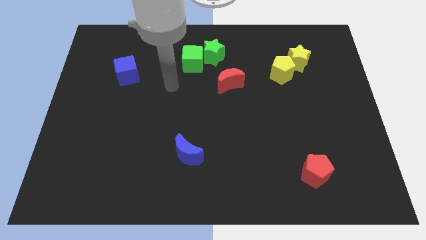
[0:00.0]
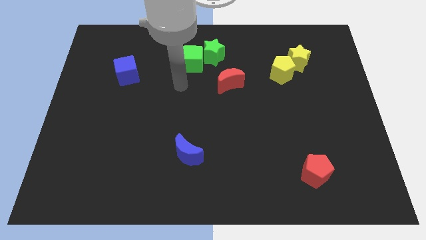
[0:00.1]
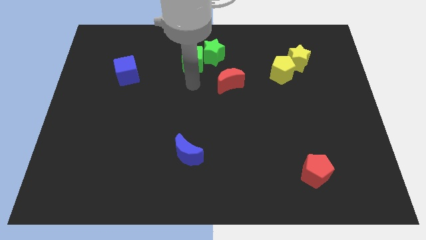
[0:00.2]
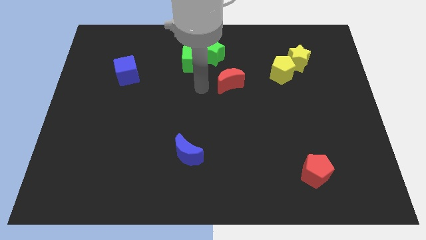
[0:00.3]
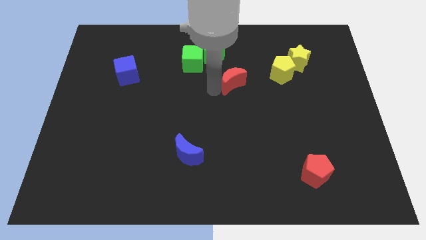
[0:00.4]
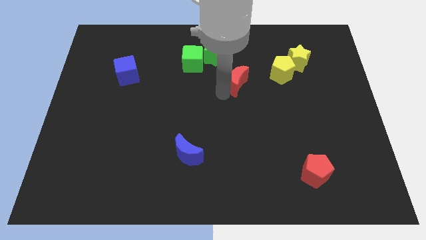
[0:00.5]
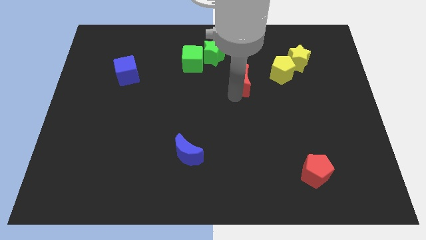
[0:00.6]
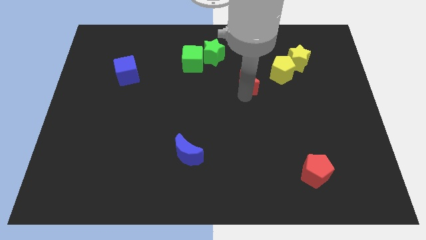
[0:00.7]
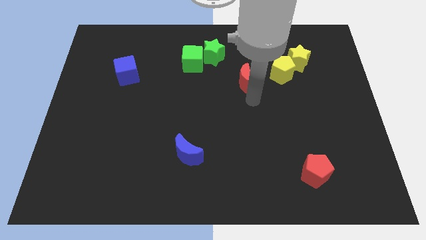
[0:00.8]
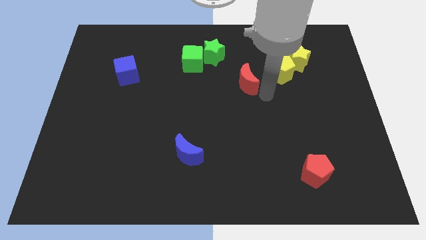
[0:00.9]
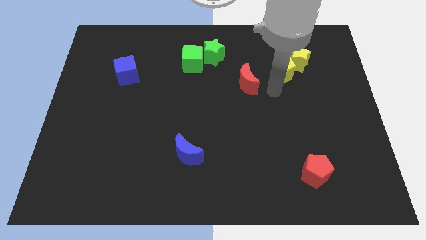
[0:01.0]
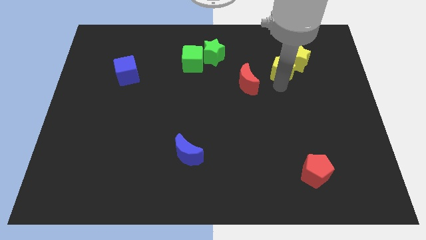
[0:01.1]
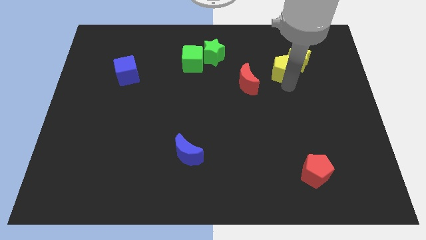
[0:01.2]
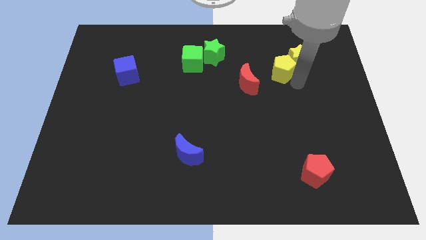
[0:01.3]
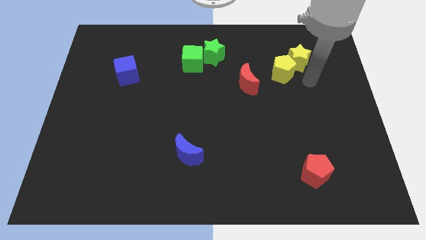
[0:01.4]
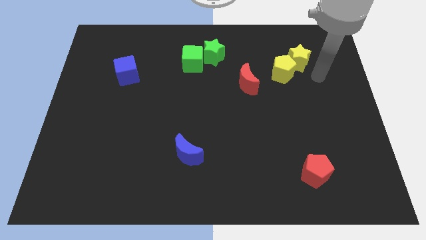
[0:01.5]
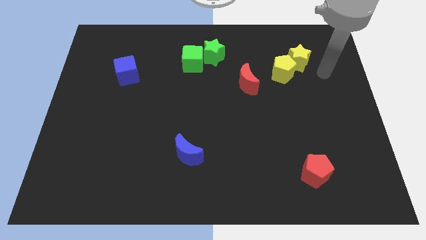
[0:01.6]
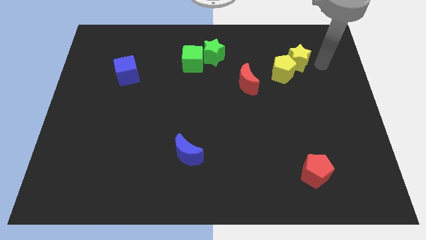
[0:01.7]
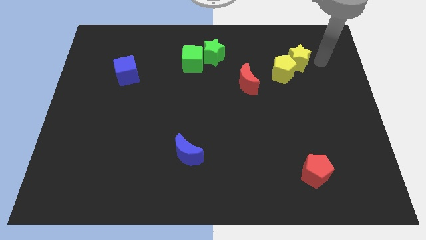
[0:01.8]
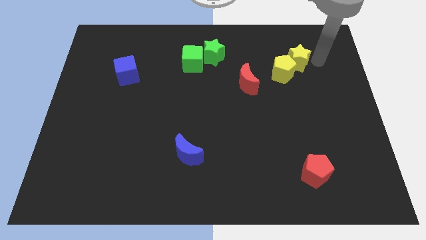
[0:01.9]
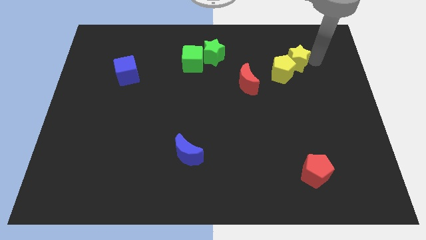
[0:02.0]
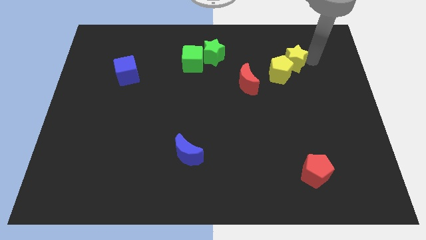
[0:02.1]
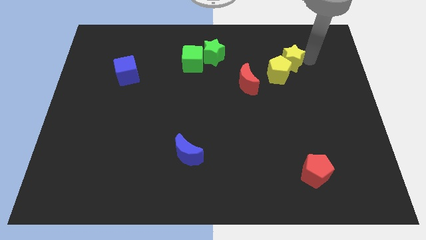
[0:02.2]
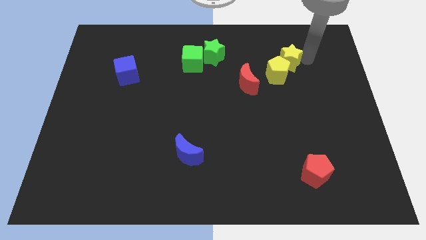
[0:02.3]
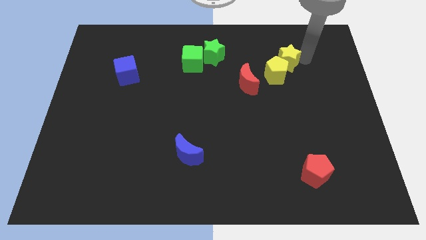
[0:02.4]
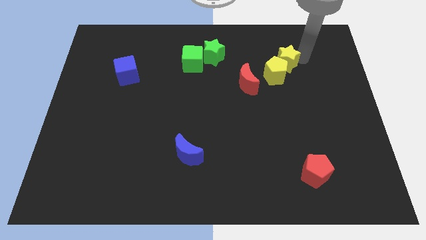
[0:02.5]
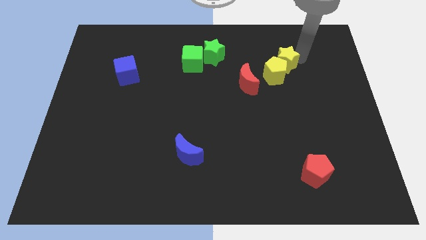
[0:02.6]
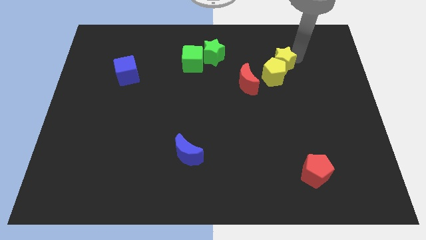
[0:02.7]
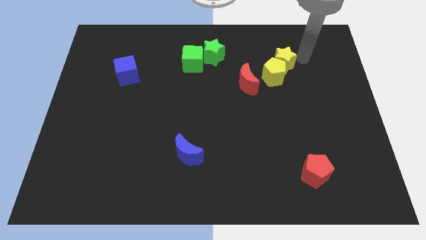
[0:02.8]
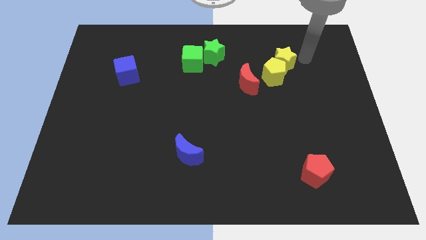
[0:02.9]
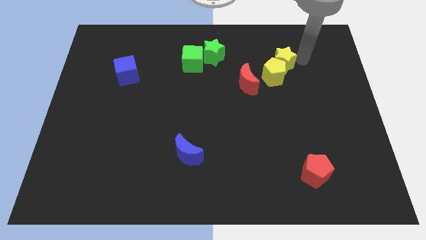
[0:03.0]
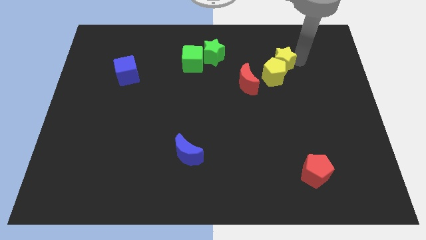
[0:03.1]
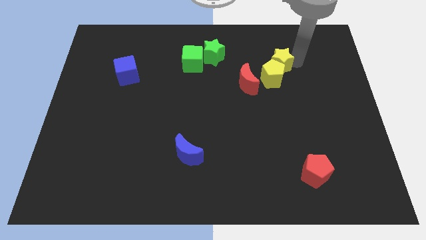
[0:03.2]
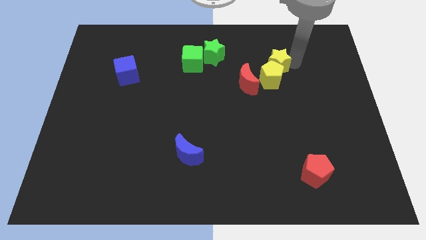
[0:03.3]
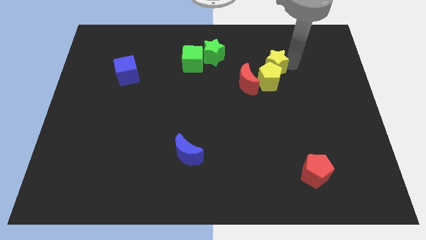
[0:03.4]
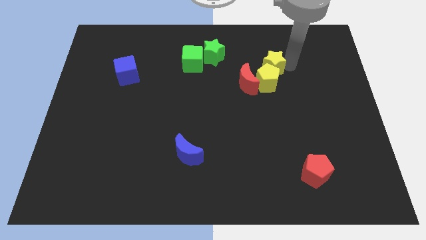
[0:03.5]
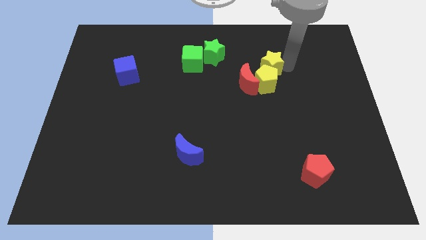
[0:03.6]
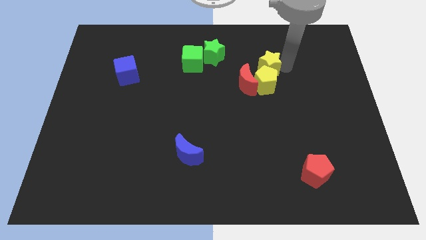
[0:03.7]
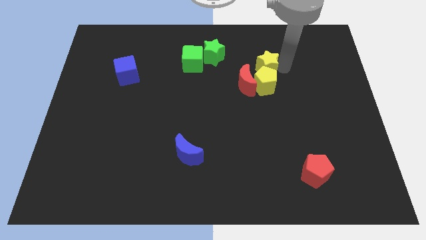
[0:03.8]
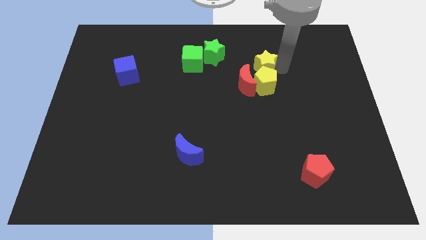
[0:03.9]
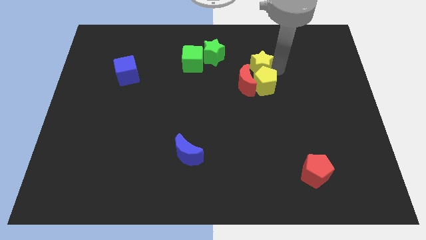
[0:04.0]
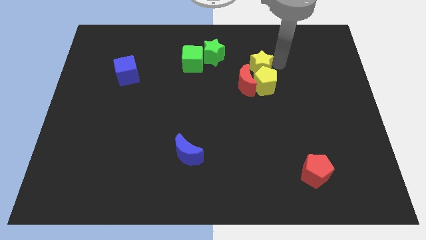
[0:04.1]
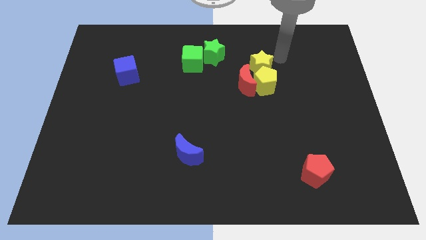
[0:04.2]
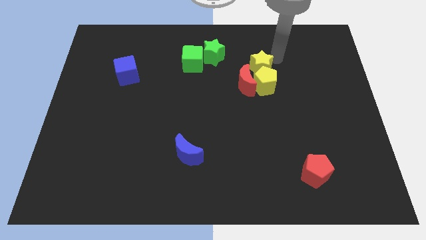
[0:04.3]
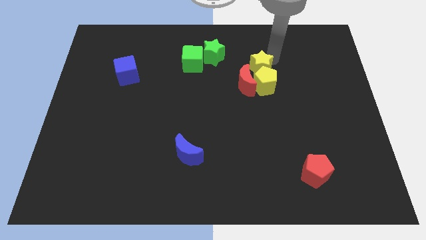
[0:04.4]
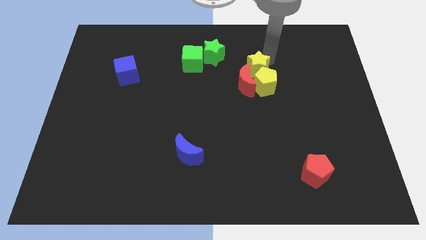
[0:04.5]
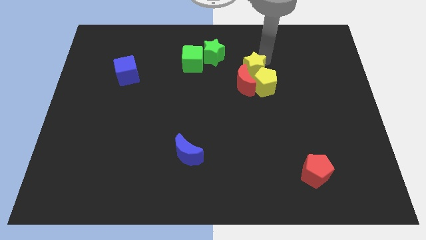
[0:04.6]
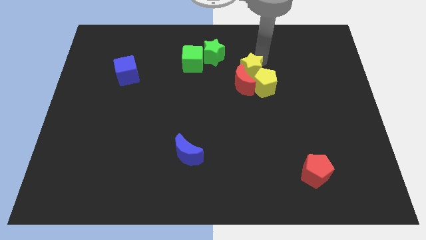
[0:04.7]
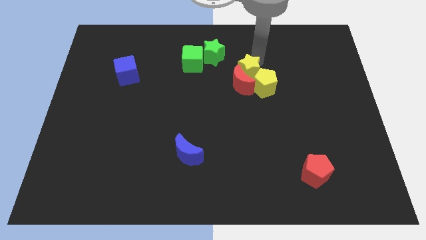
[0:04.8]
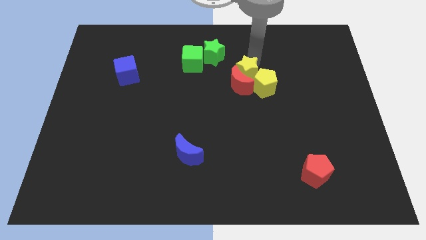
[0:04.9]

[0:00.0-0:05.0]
push the yellow star just left of the yellow pentagon

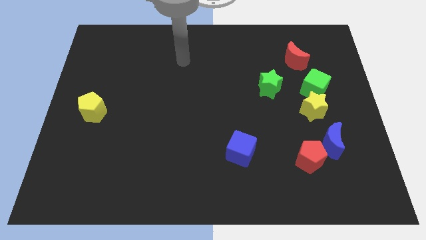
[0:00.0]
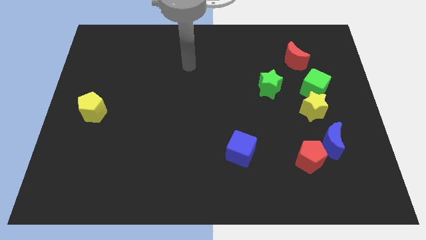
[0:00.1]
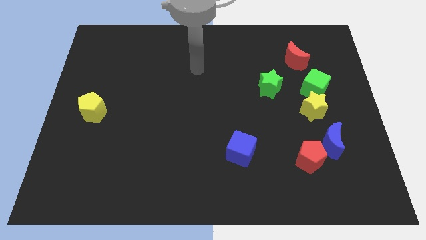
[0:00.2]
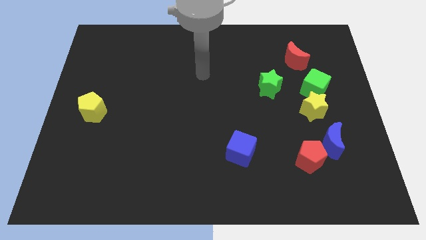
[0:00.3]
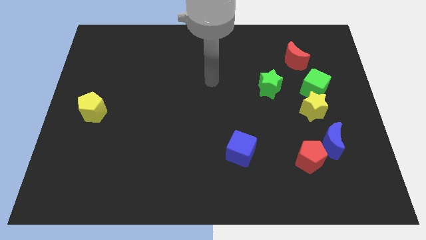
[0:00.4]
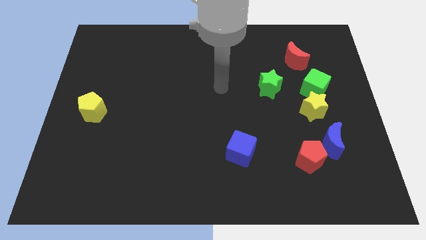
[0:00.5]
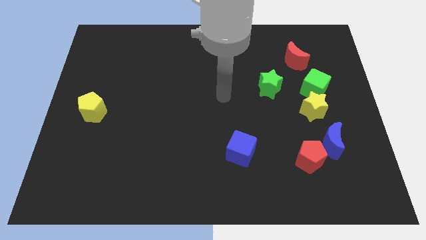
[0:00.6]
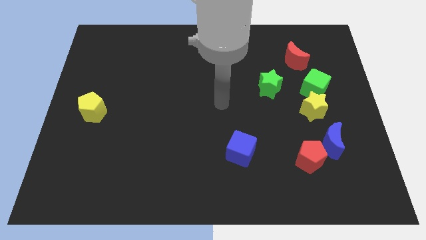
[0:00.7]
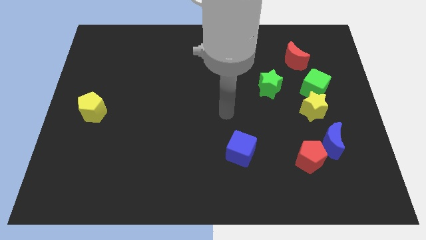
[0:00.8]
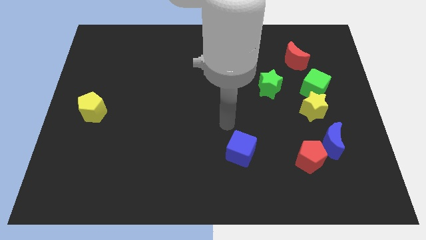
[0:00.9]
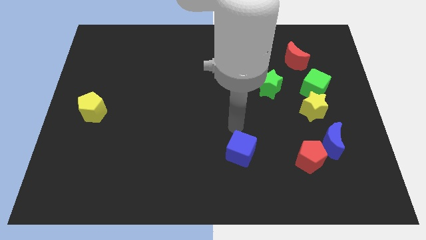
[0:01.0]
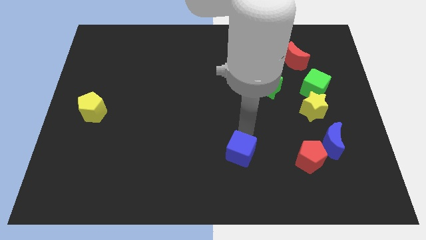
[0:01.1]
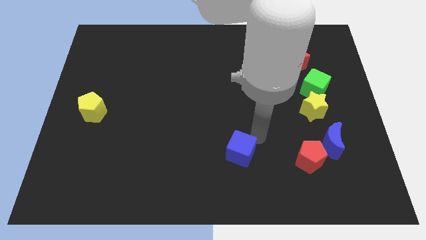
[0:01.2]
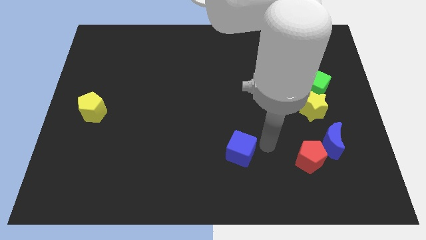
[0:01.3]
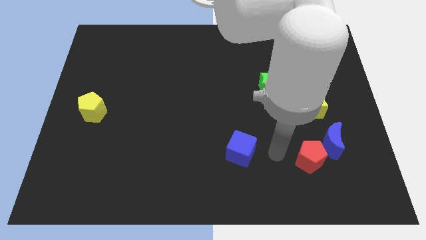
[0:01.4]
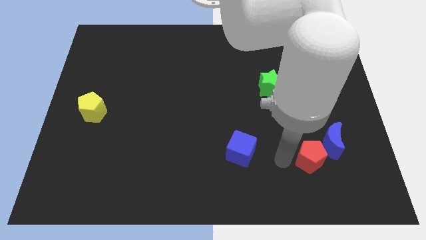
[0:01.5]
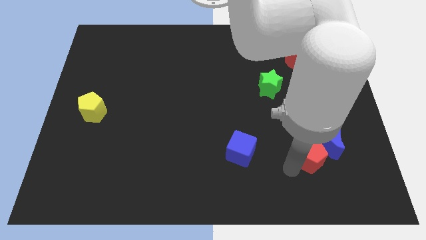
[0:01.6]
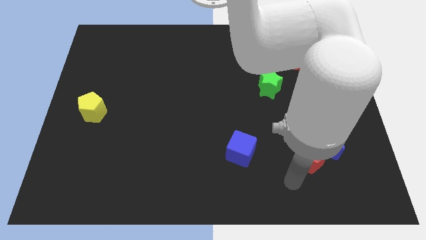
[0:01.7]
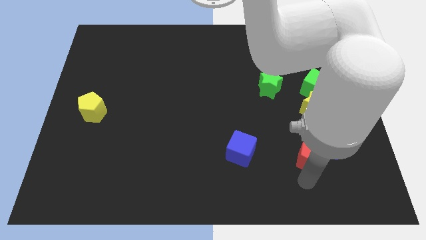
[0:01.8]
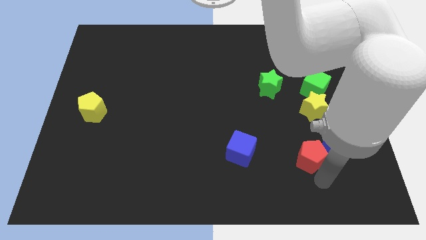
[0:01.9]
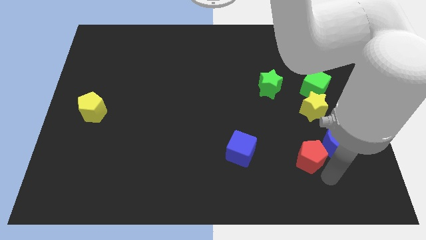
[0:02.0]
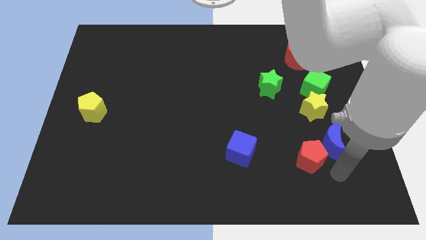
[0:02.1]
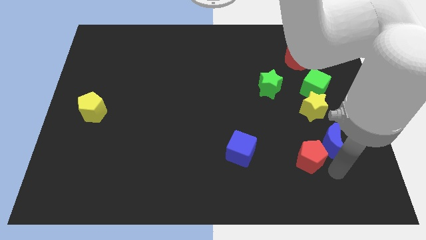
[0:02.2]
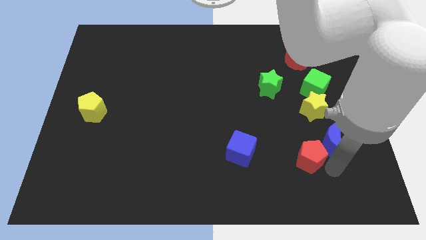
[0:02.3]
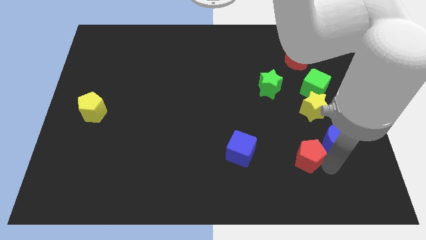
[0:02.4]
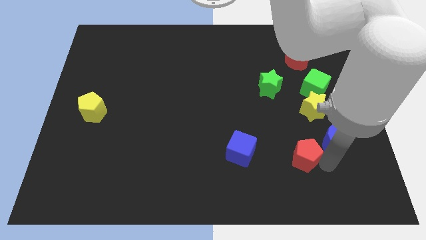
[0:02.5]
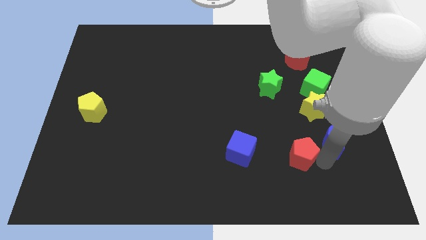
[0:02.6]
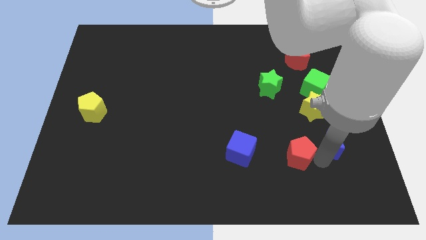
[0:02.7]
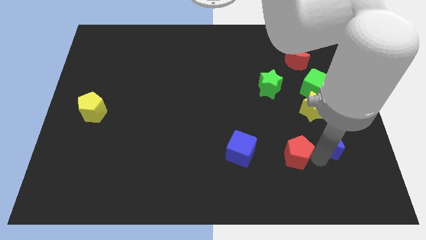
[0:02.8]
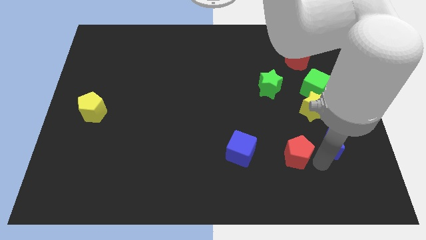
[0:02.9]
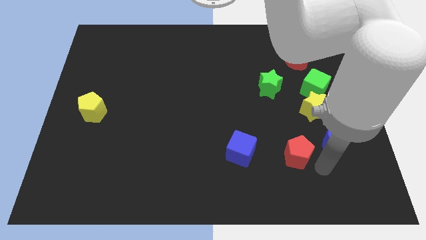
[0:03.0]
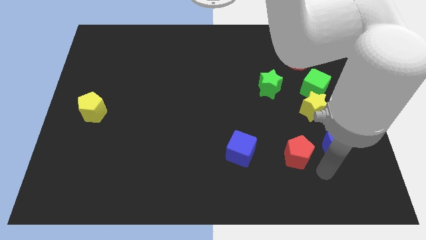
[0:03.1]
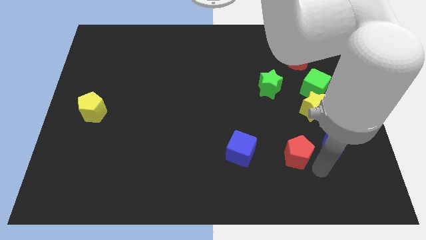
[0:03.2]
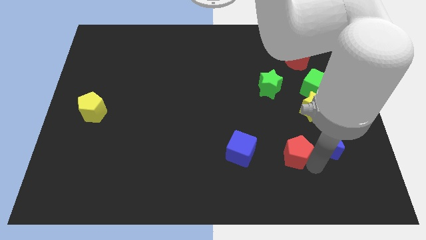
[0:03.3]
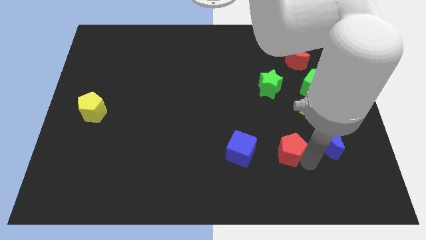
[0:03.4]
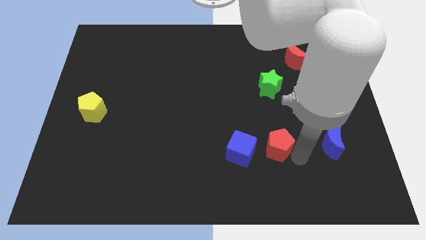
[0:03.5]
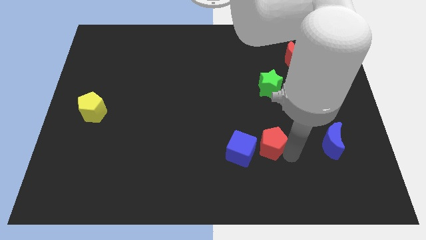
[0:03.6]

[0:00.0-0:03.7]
put the red pentagon to the top right side of the blue cube
